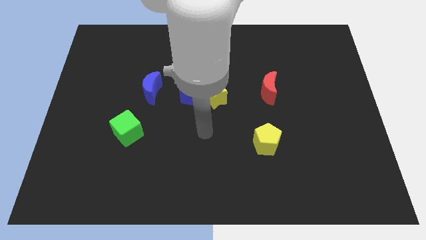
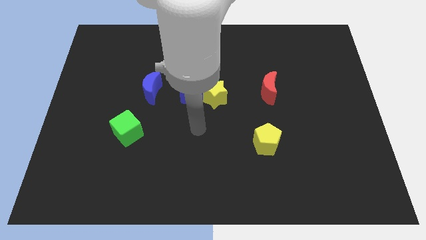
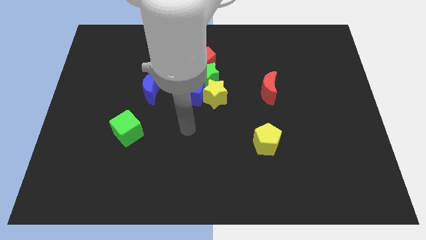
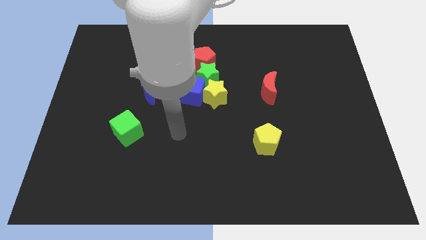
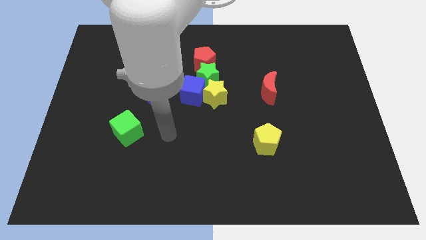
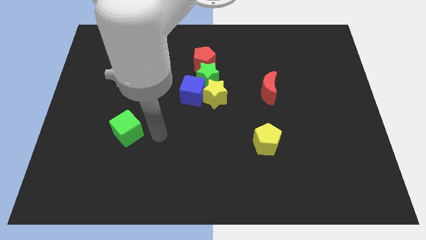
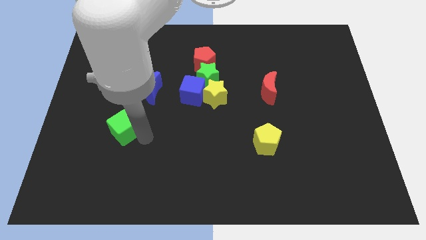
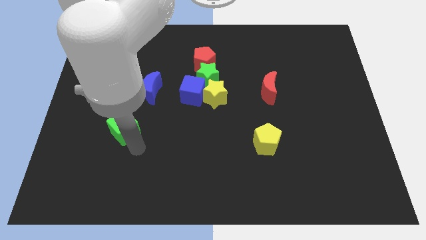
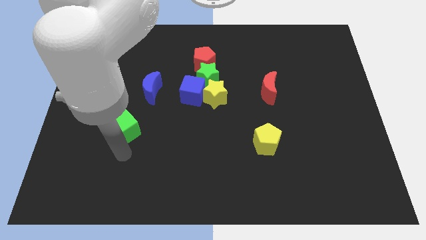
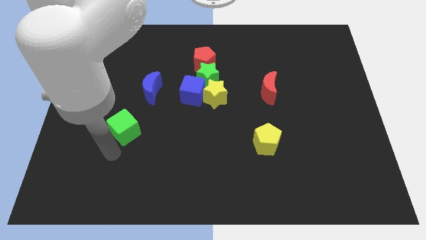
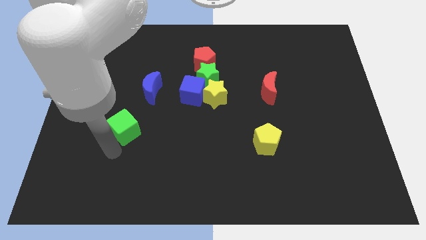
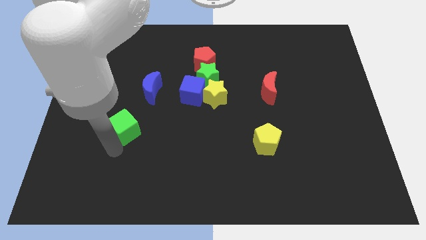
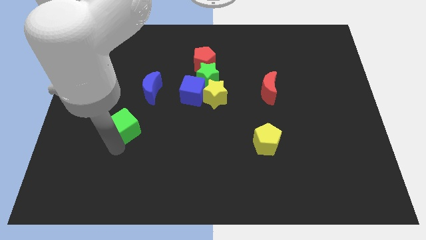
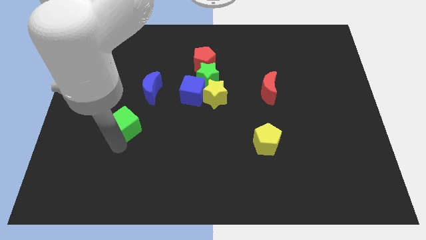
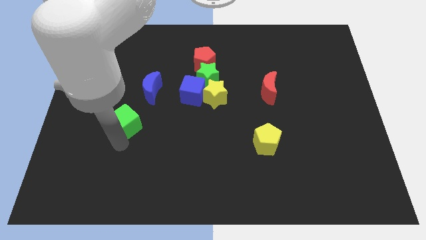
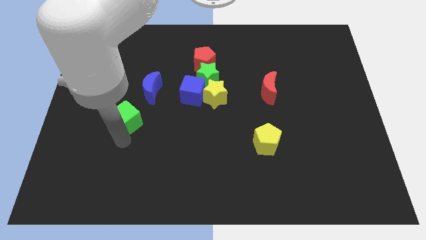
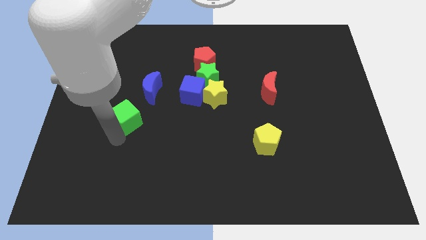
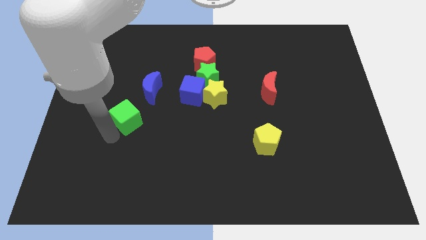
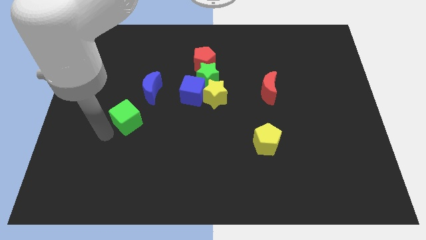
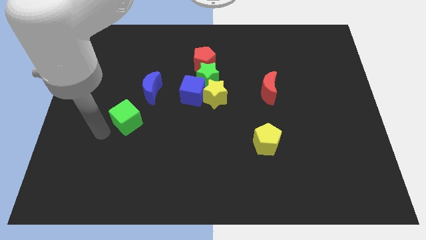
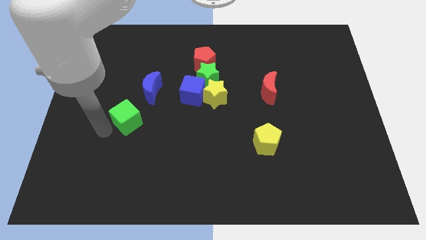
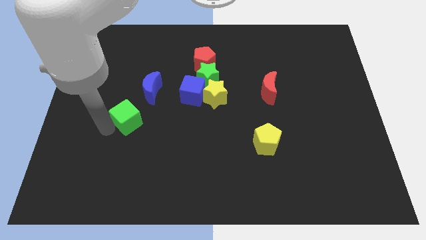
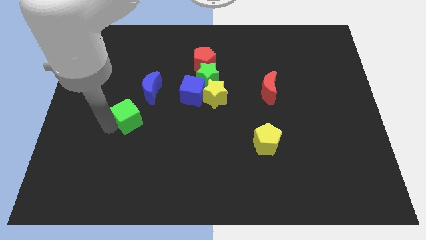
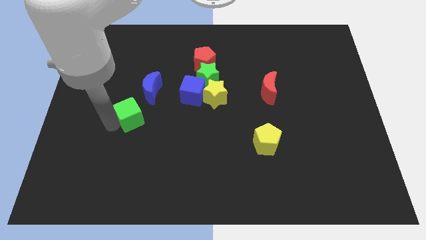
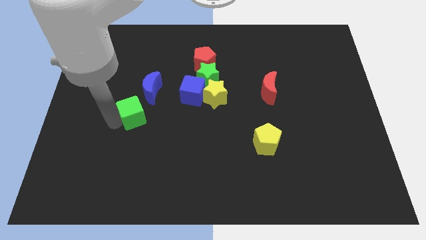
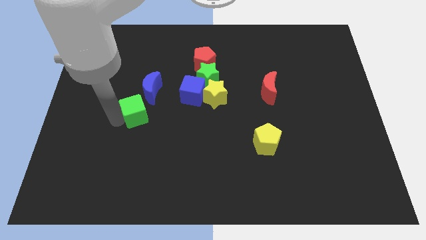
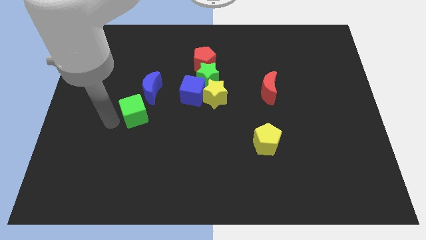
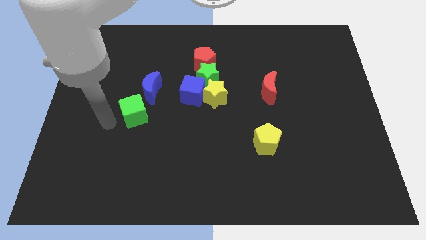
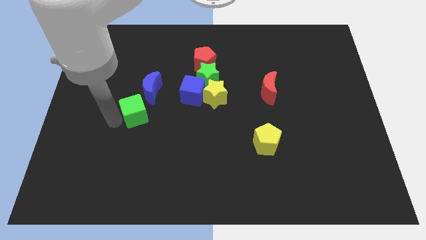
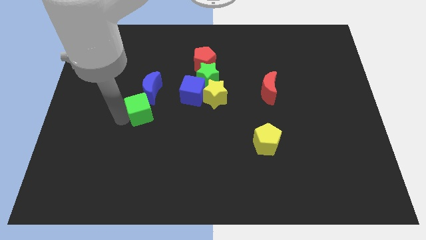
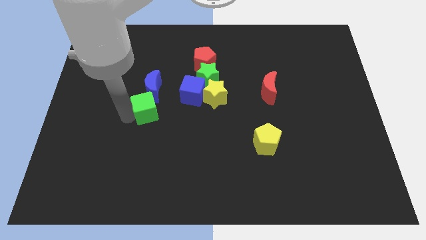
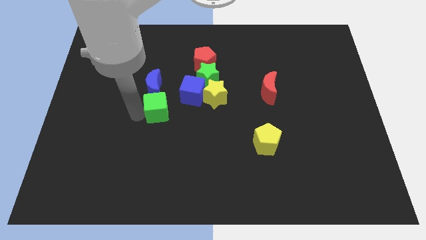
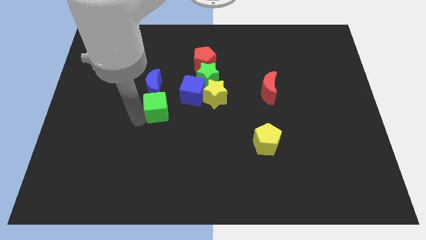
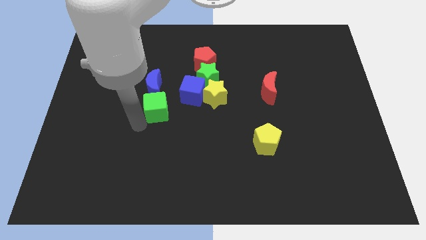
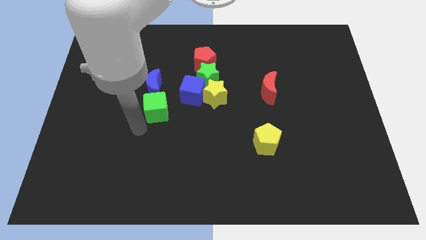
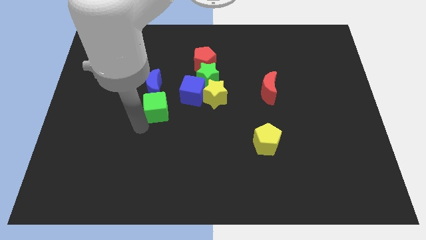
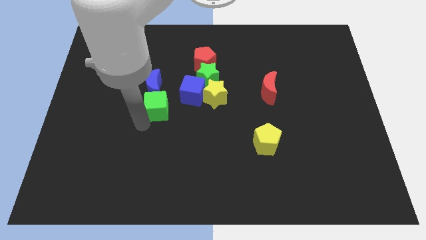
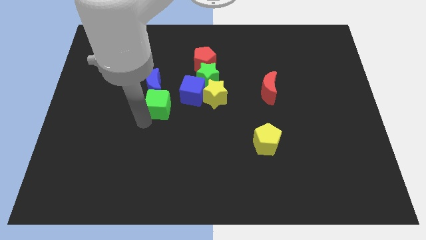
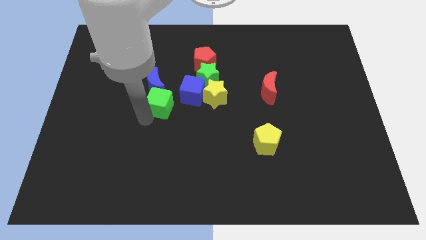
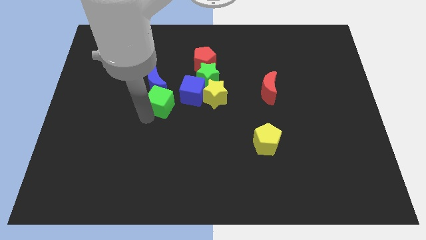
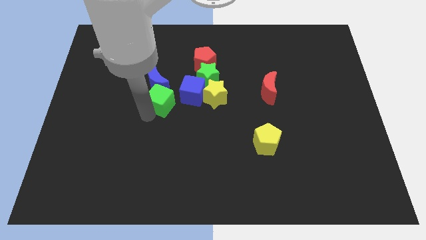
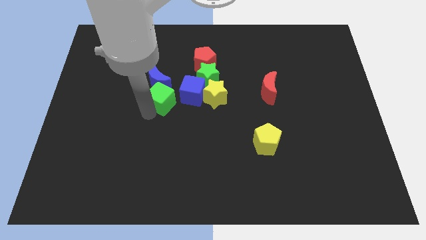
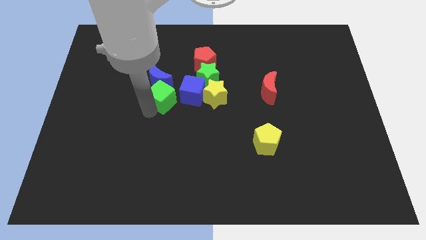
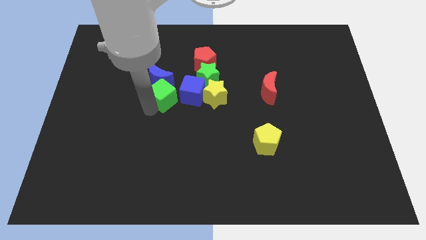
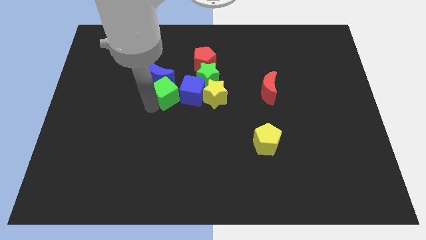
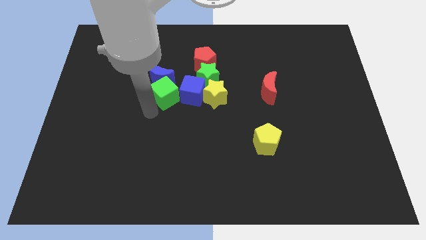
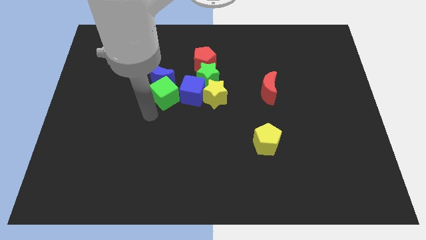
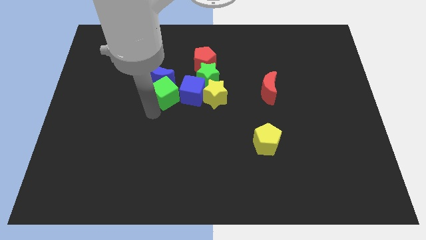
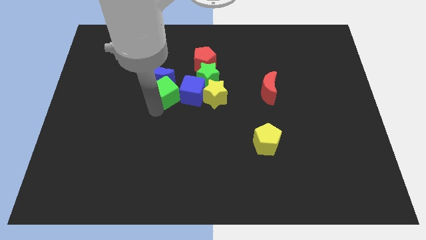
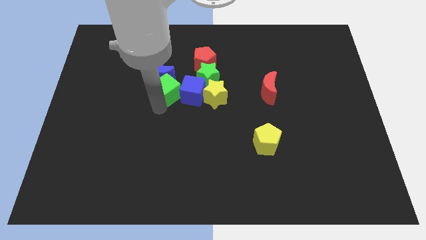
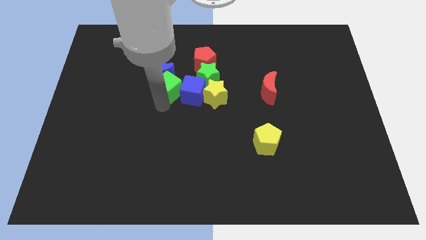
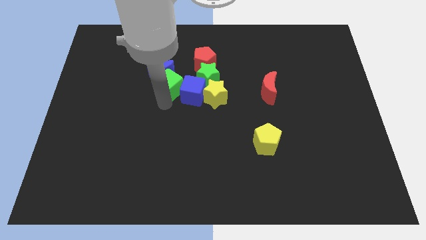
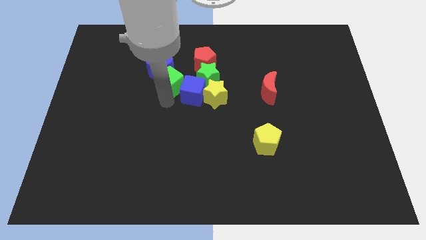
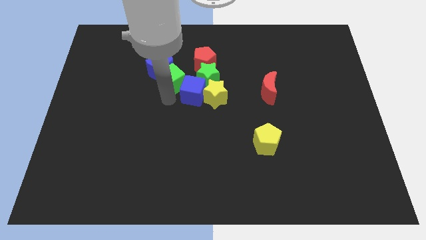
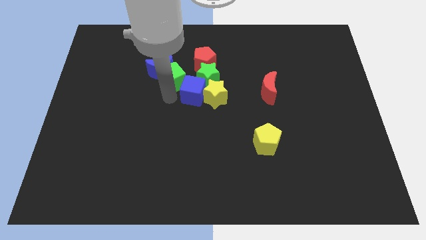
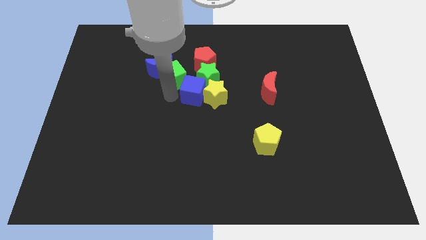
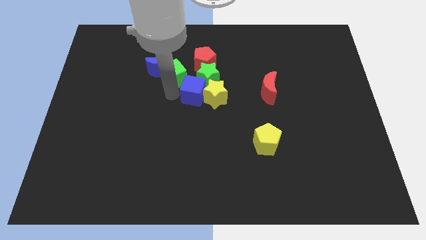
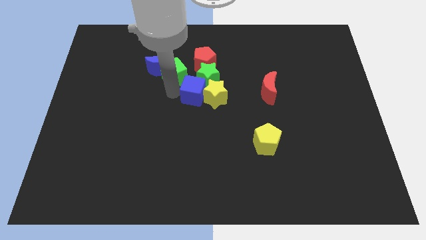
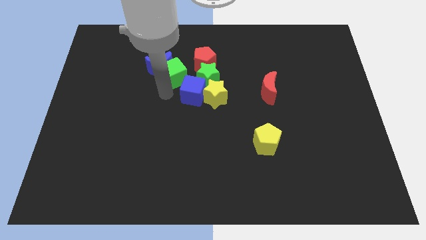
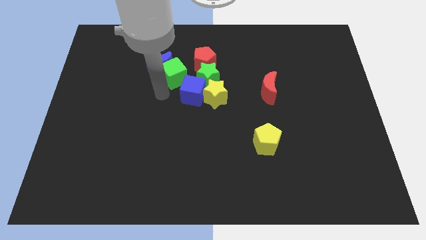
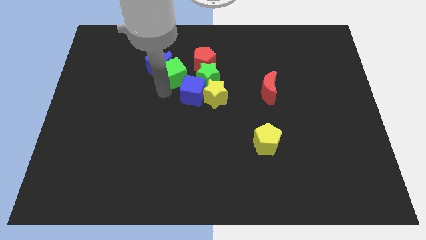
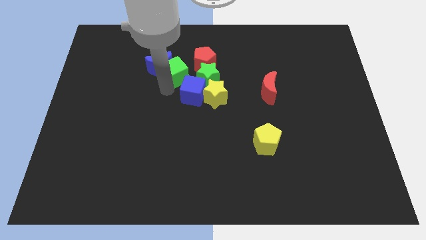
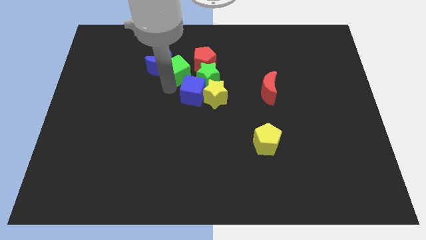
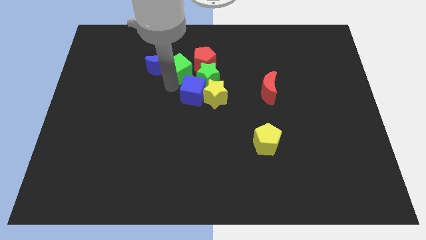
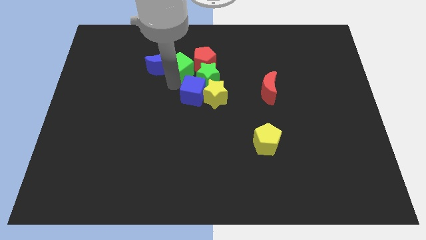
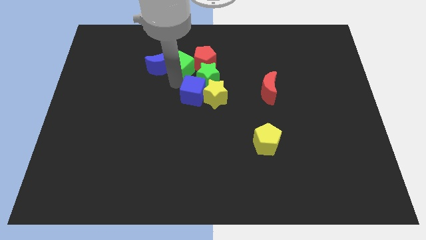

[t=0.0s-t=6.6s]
move the green cube up and right

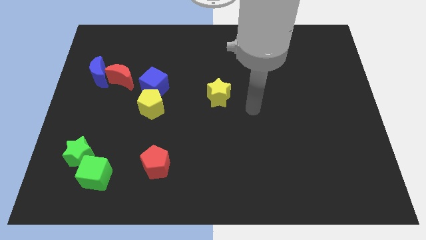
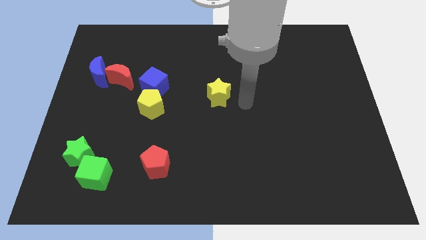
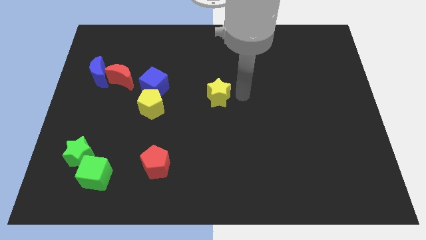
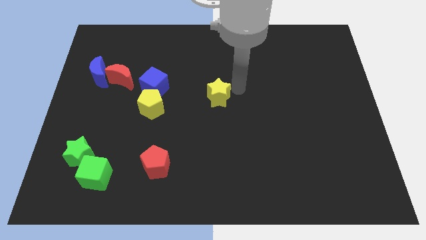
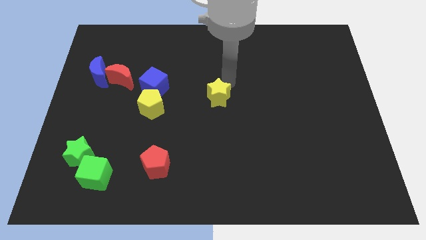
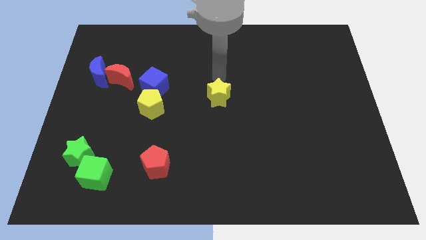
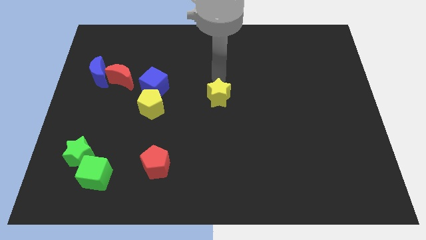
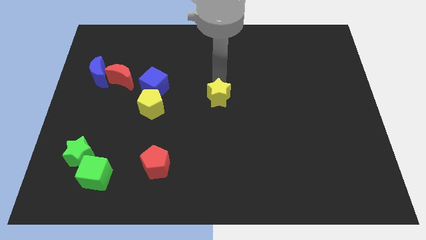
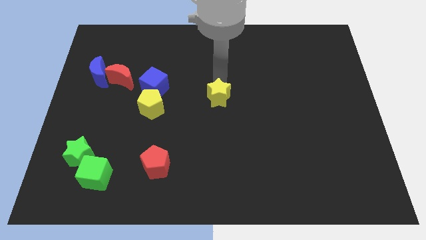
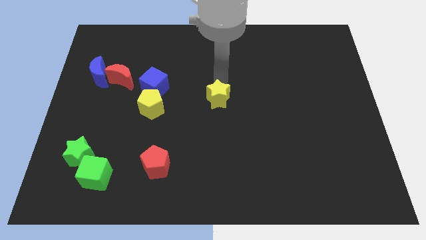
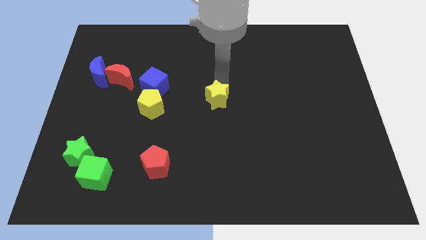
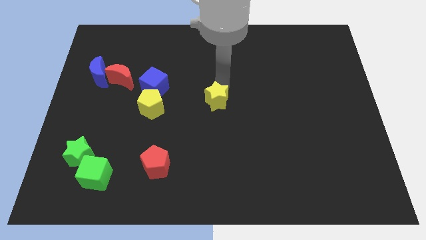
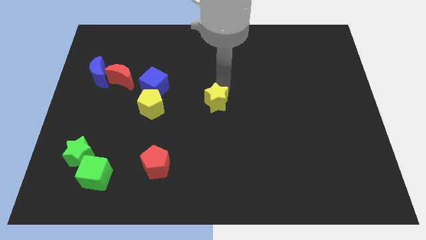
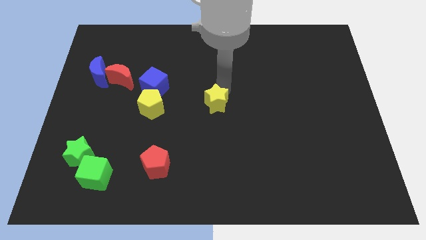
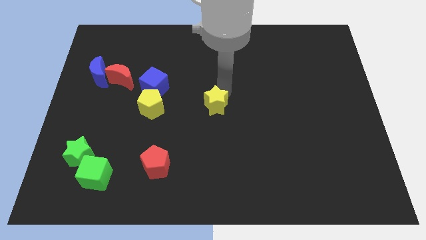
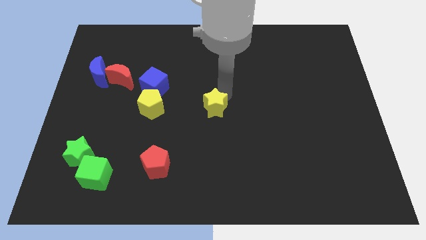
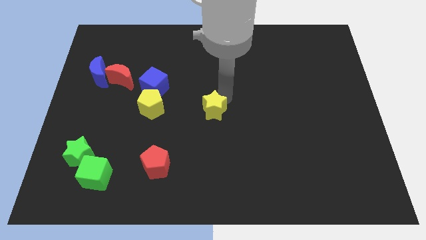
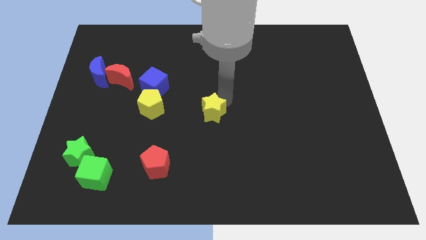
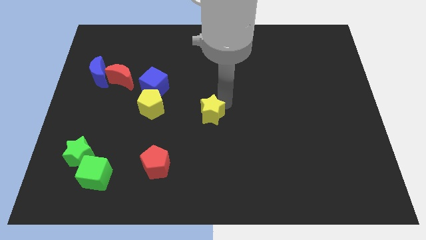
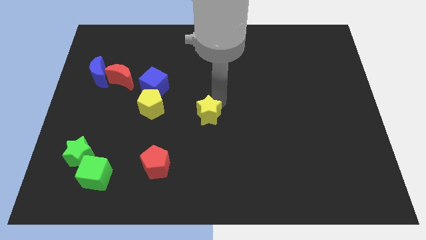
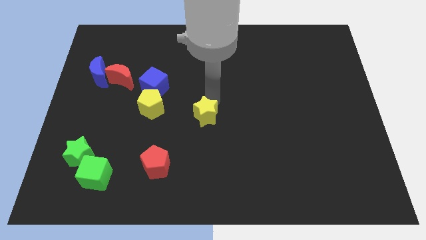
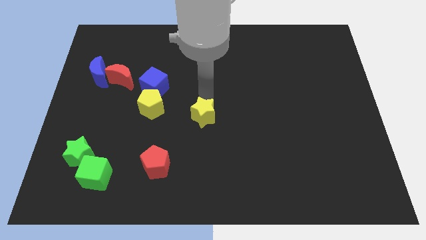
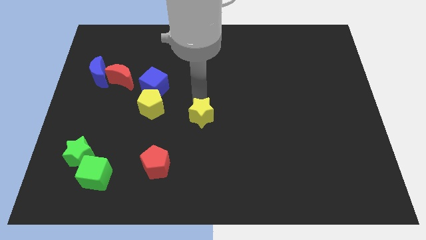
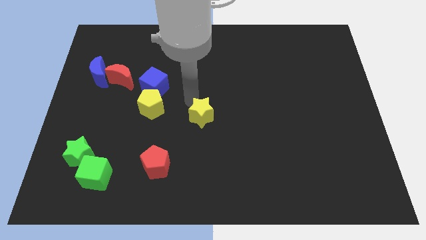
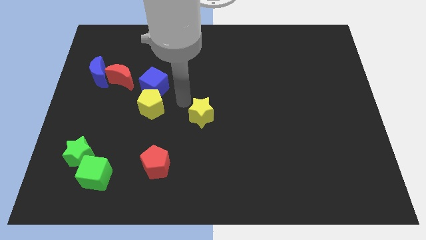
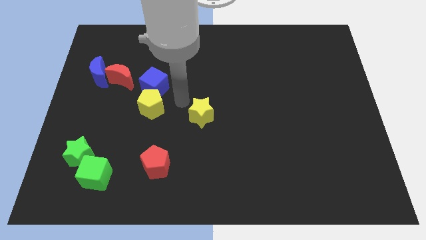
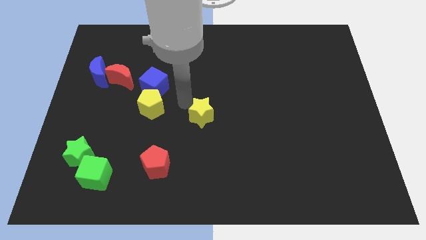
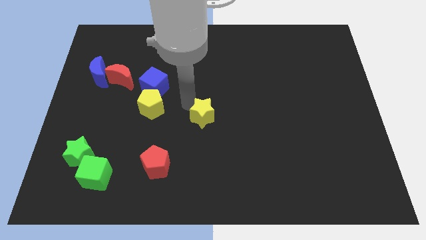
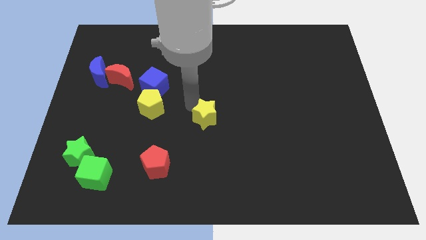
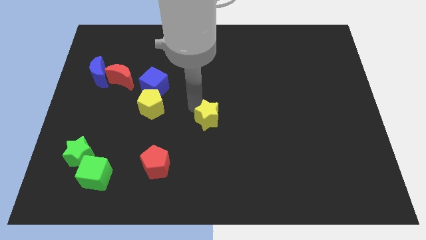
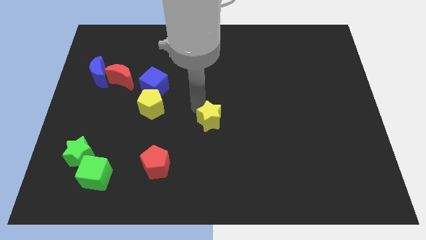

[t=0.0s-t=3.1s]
slightly move the yellow star downwards
